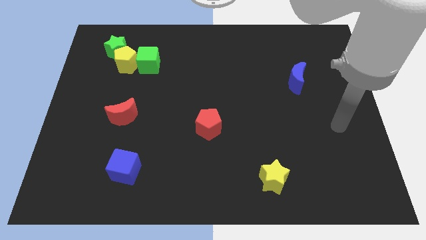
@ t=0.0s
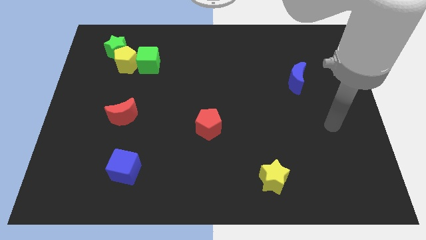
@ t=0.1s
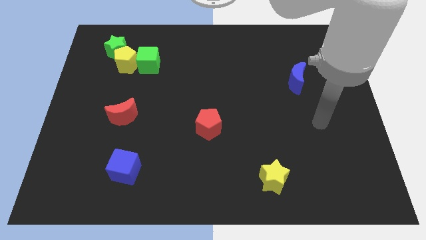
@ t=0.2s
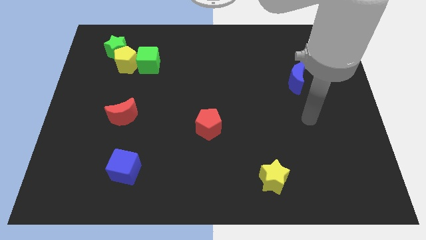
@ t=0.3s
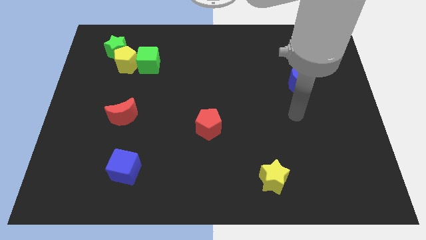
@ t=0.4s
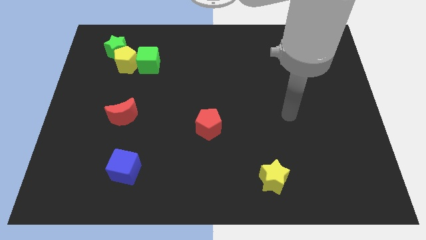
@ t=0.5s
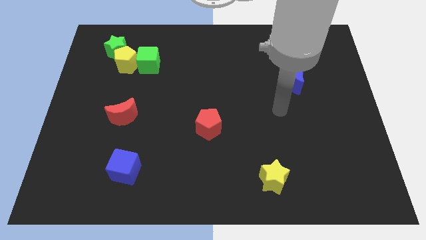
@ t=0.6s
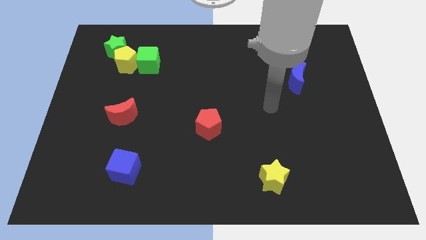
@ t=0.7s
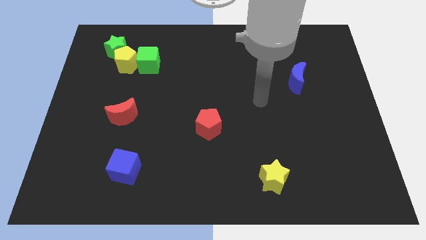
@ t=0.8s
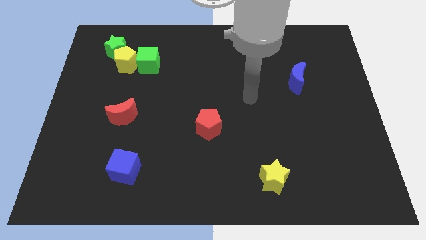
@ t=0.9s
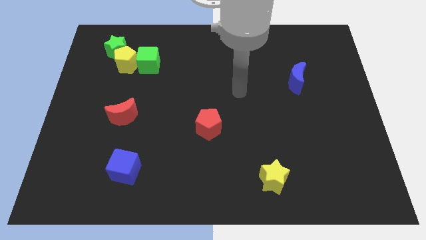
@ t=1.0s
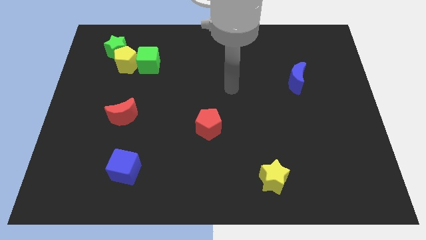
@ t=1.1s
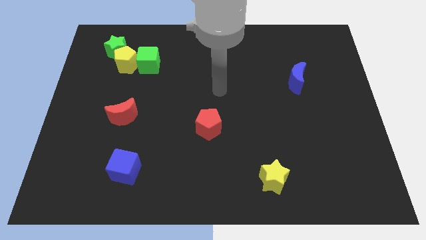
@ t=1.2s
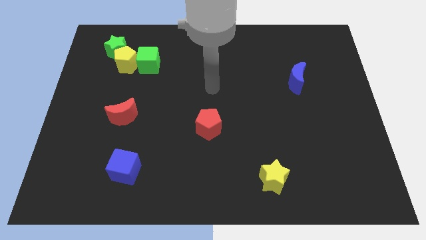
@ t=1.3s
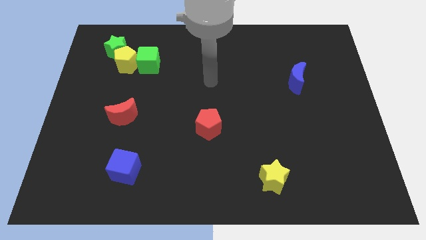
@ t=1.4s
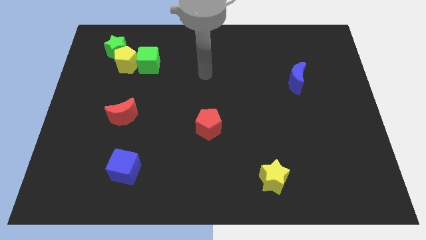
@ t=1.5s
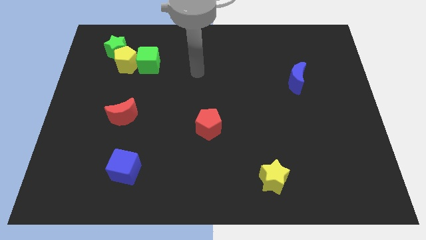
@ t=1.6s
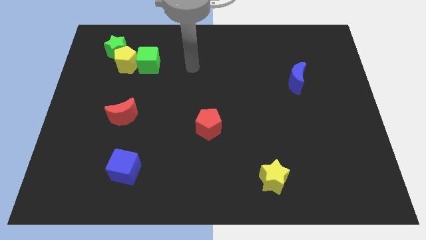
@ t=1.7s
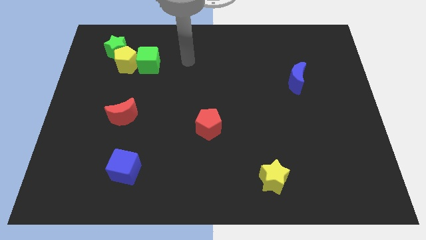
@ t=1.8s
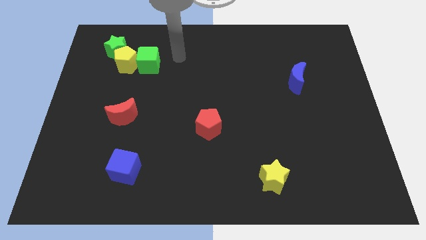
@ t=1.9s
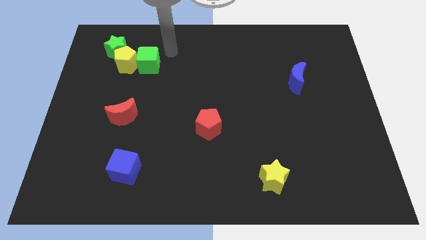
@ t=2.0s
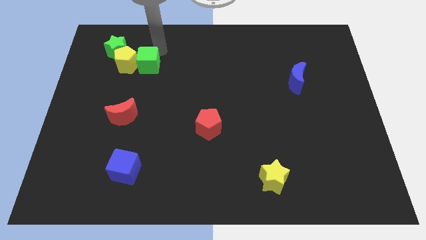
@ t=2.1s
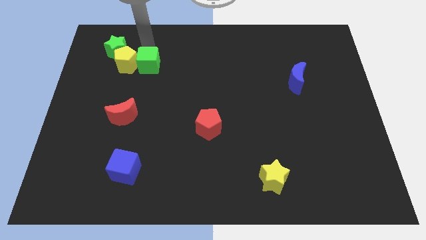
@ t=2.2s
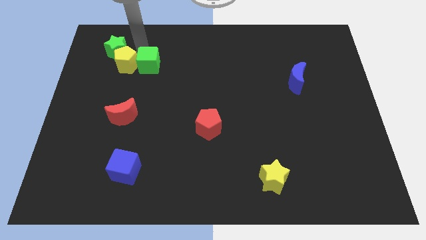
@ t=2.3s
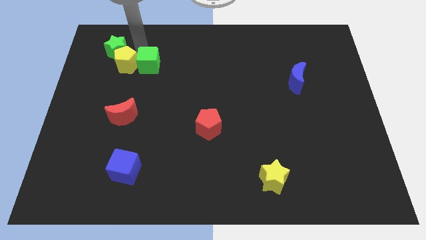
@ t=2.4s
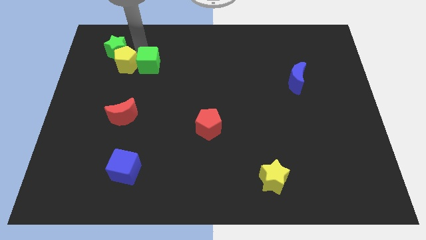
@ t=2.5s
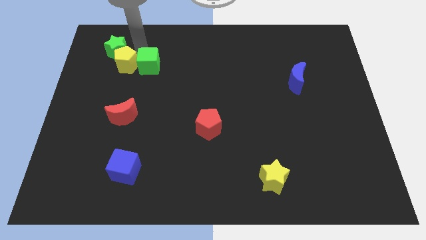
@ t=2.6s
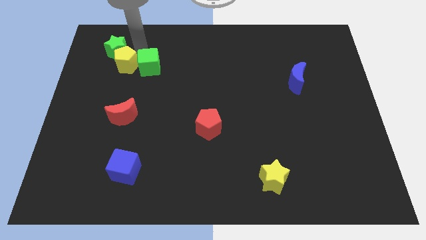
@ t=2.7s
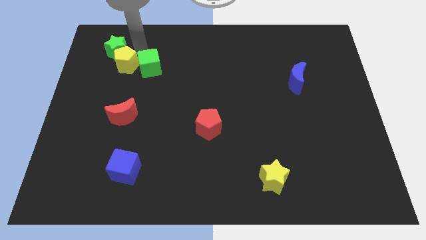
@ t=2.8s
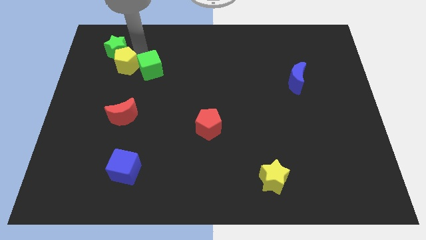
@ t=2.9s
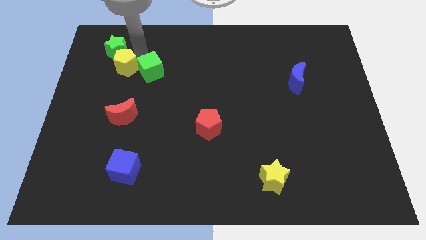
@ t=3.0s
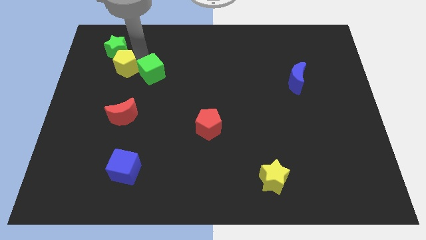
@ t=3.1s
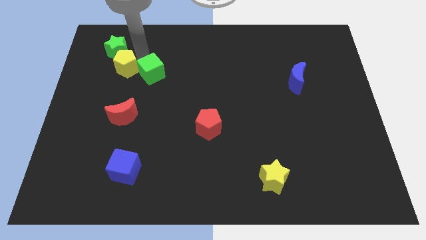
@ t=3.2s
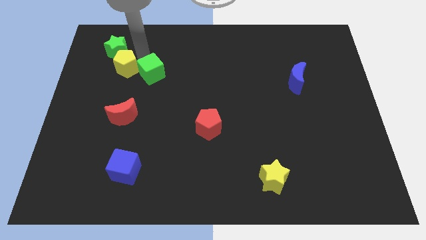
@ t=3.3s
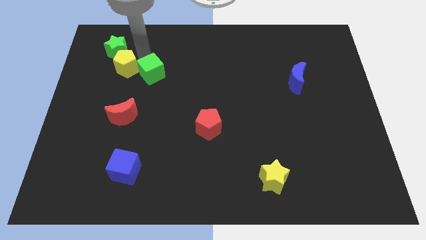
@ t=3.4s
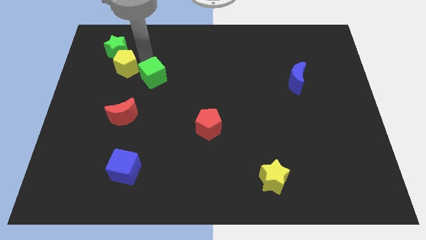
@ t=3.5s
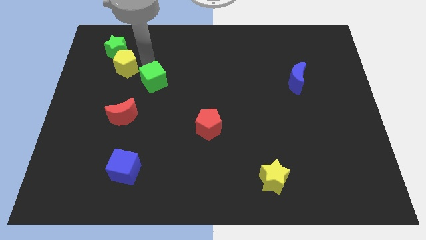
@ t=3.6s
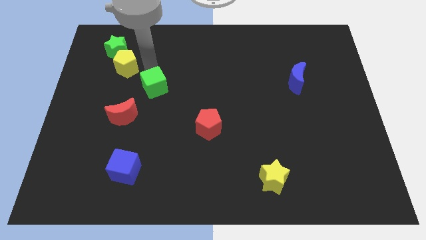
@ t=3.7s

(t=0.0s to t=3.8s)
slide the green cube downwards a bit

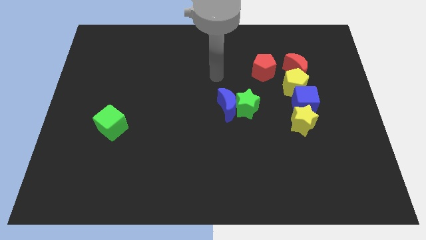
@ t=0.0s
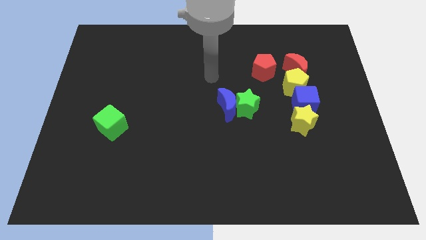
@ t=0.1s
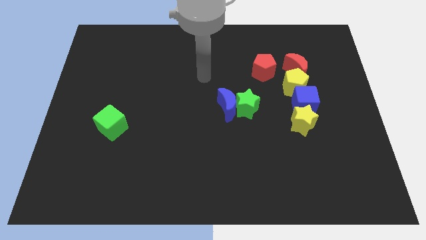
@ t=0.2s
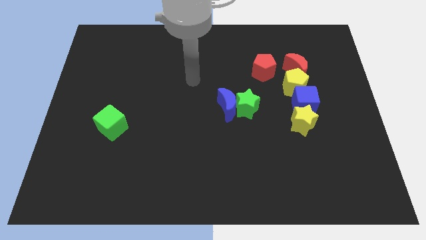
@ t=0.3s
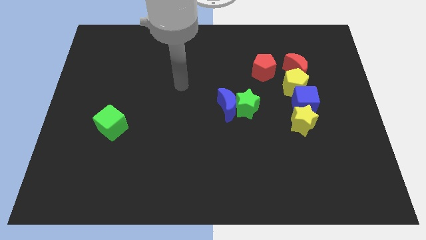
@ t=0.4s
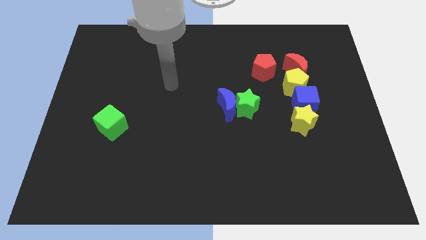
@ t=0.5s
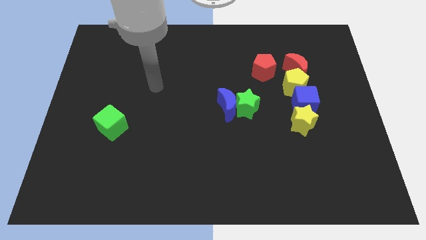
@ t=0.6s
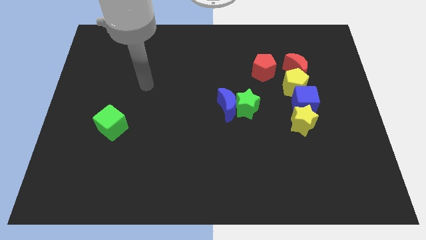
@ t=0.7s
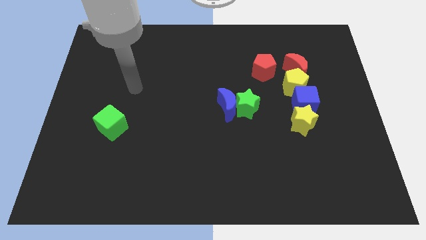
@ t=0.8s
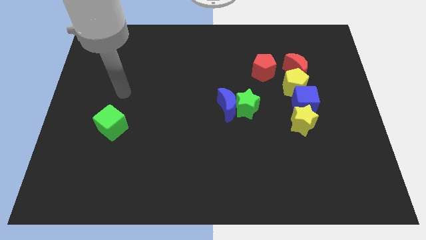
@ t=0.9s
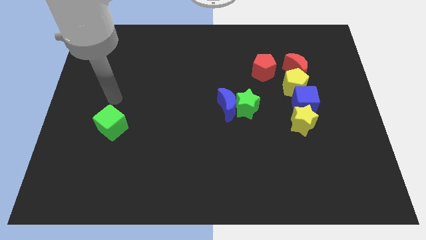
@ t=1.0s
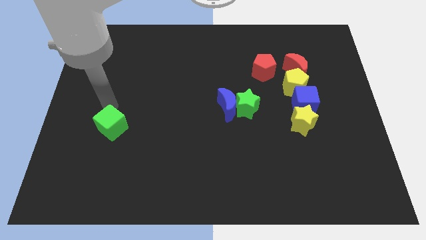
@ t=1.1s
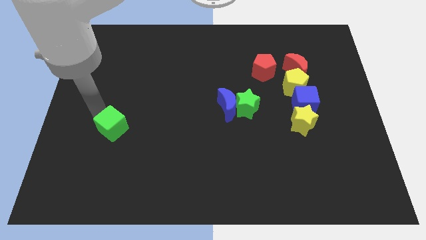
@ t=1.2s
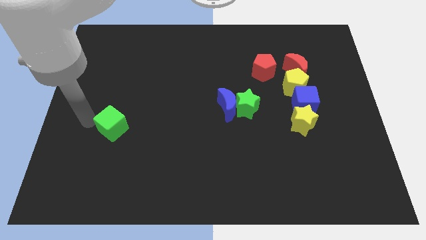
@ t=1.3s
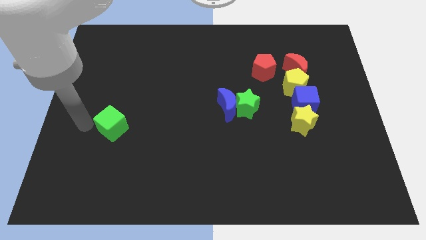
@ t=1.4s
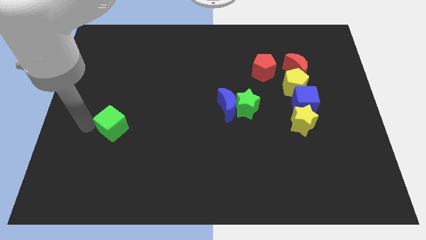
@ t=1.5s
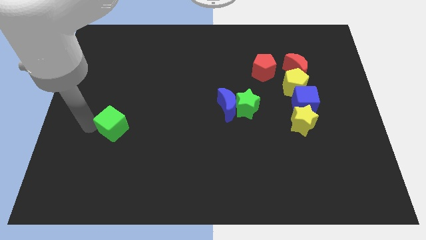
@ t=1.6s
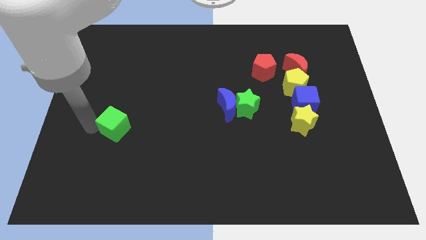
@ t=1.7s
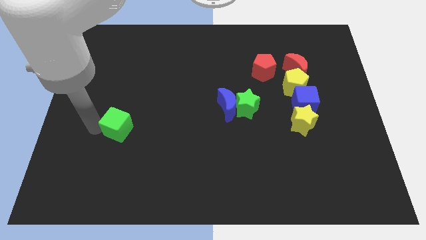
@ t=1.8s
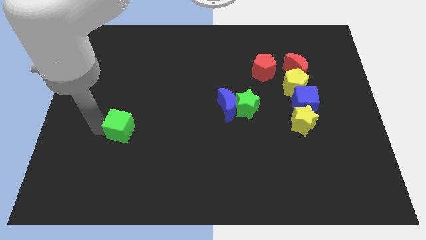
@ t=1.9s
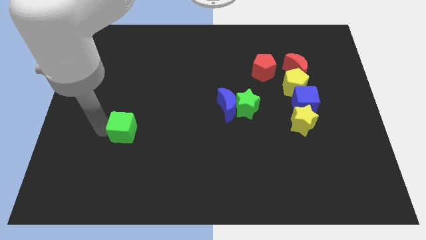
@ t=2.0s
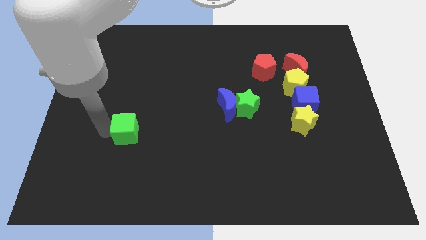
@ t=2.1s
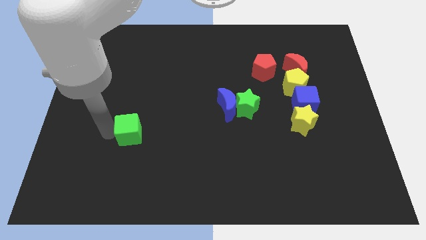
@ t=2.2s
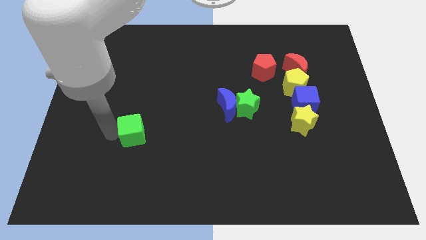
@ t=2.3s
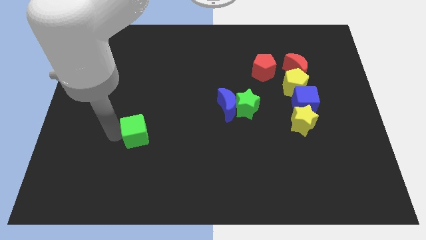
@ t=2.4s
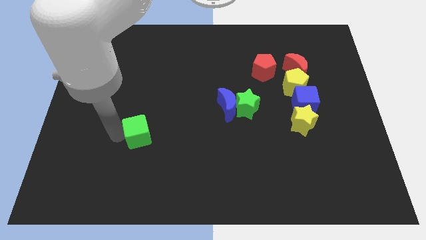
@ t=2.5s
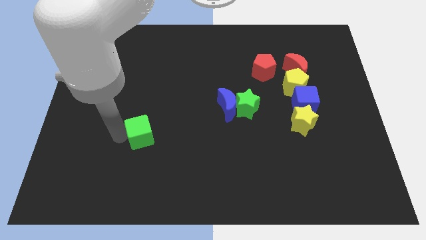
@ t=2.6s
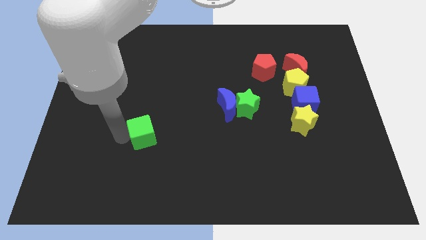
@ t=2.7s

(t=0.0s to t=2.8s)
move the green cube somewhat right

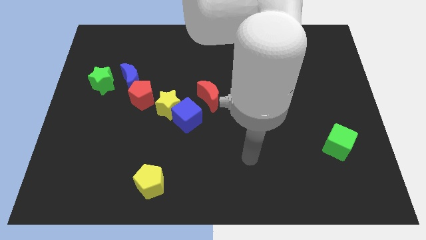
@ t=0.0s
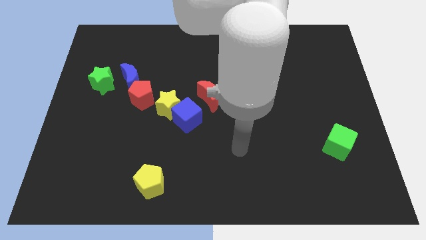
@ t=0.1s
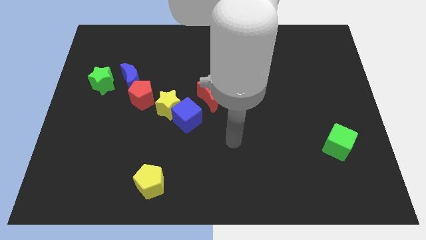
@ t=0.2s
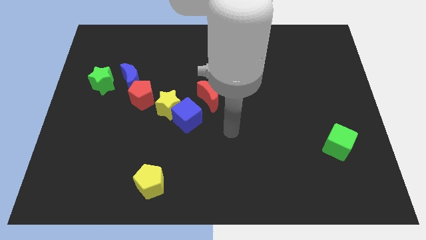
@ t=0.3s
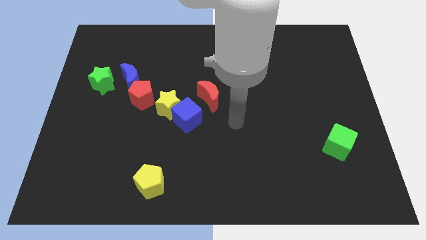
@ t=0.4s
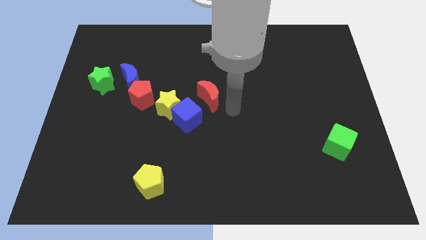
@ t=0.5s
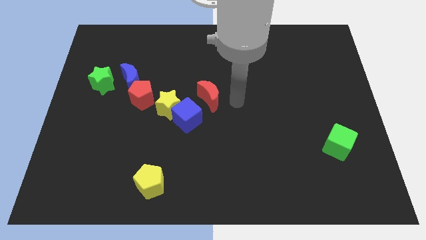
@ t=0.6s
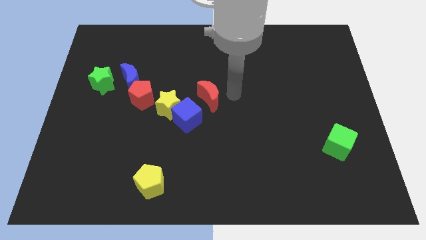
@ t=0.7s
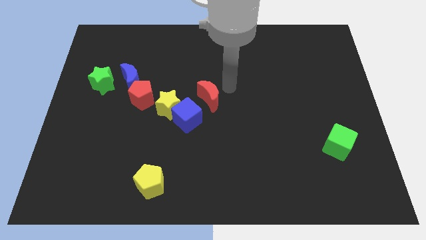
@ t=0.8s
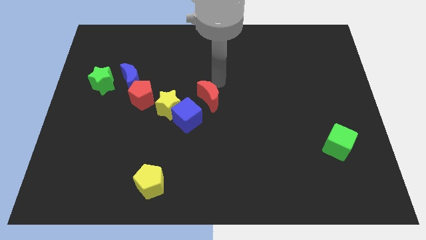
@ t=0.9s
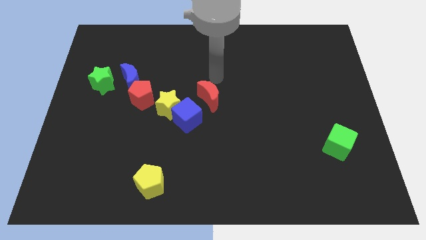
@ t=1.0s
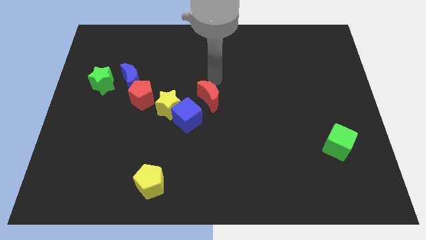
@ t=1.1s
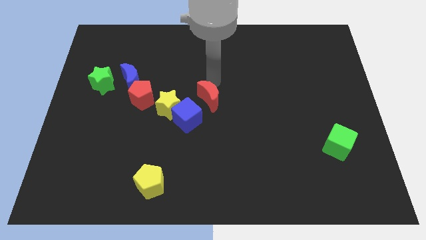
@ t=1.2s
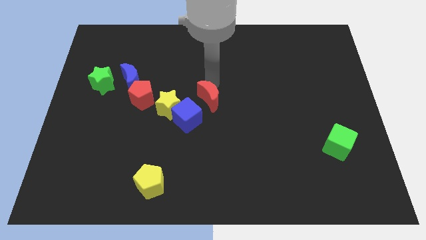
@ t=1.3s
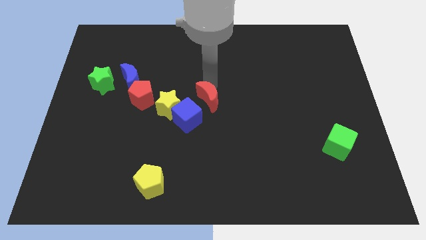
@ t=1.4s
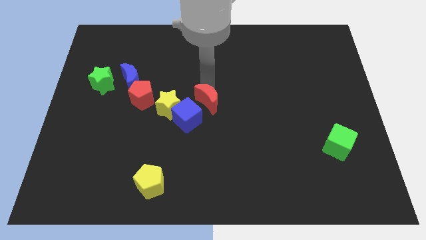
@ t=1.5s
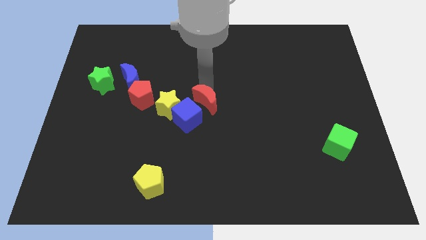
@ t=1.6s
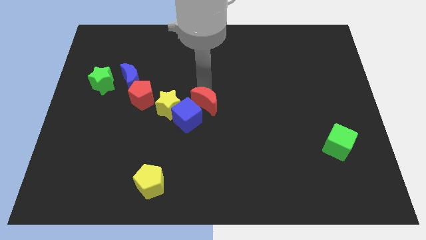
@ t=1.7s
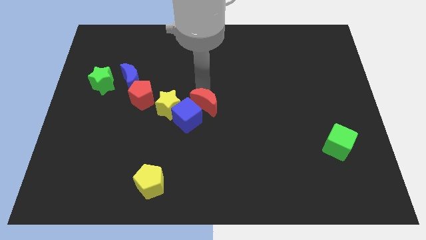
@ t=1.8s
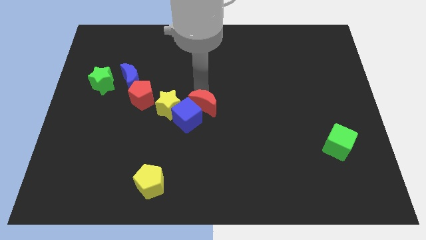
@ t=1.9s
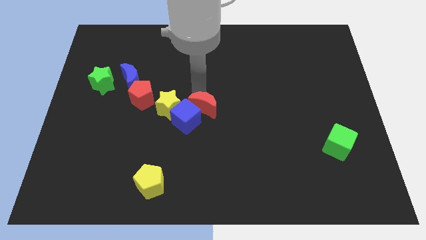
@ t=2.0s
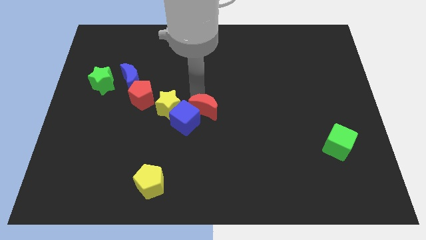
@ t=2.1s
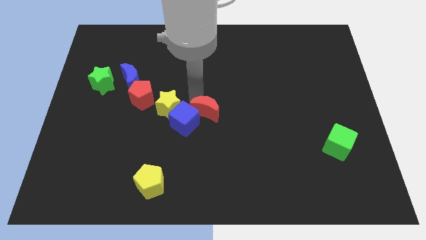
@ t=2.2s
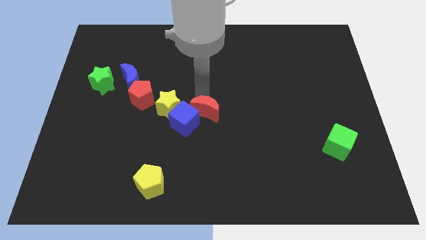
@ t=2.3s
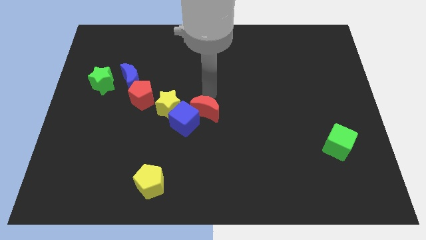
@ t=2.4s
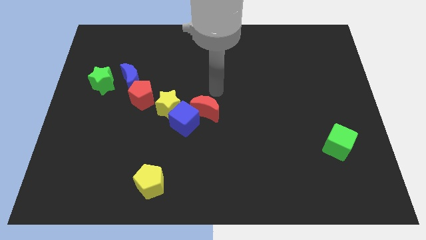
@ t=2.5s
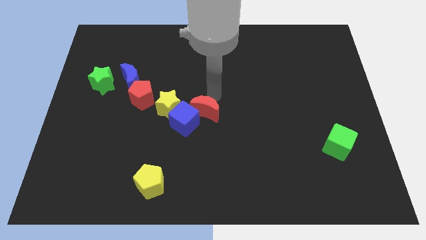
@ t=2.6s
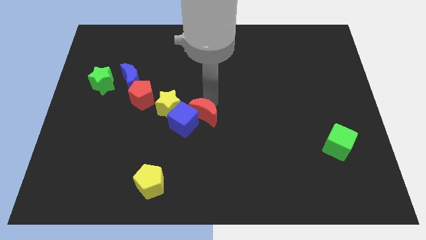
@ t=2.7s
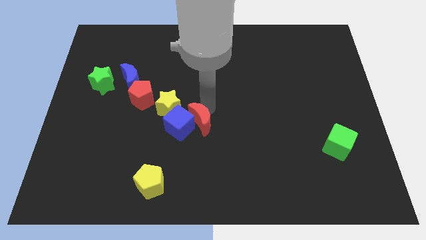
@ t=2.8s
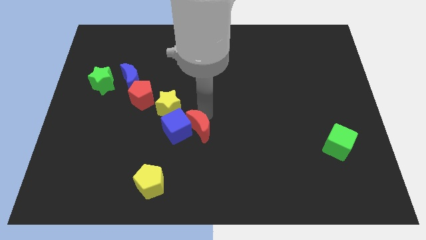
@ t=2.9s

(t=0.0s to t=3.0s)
move the red moon down and to the left a little
